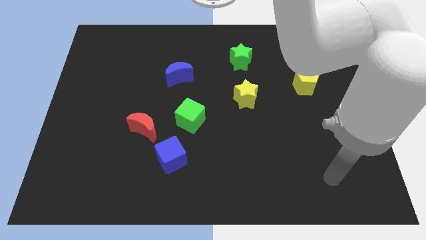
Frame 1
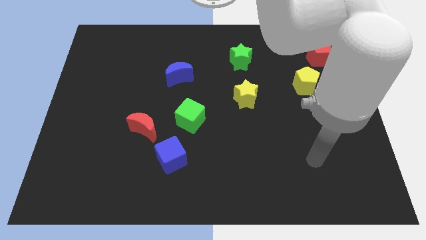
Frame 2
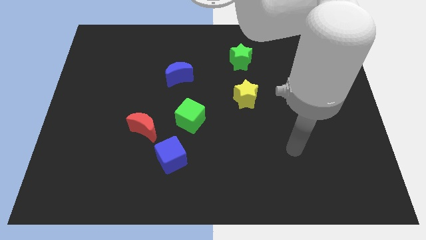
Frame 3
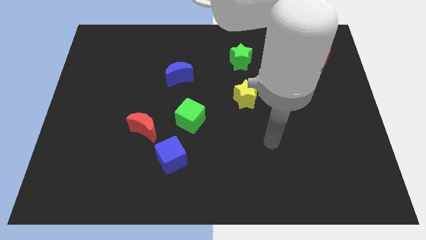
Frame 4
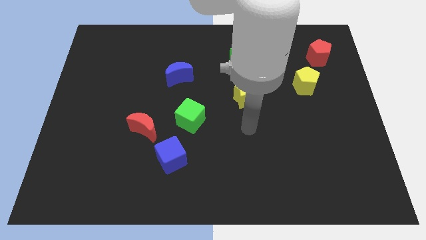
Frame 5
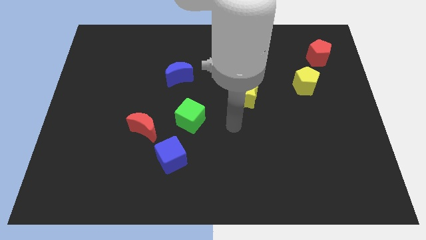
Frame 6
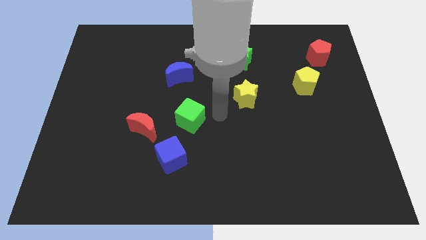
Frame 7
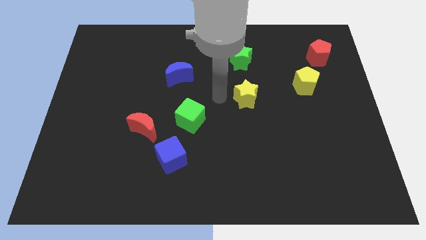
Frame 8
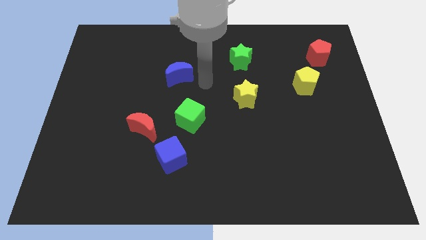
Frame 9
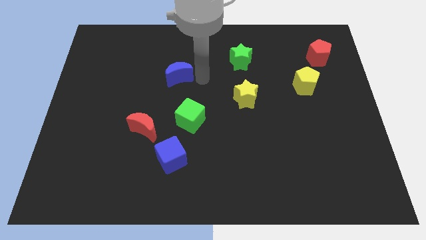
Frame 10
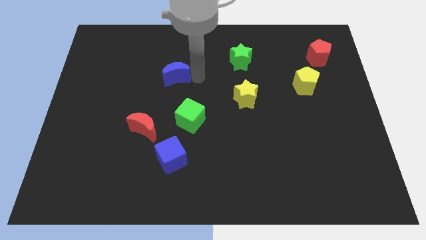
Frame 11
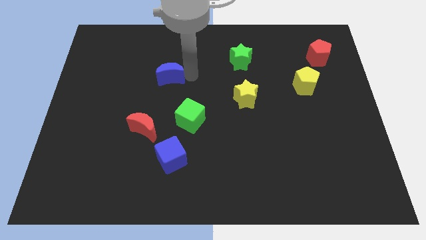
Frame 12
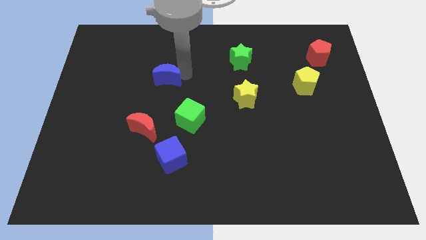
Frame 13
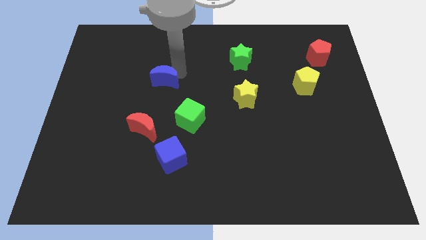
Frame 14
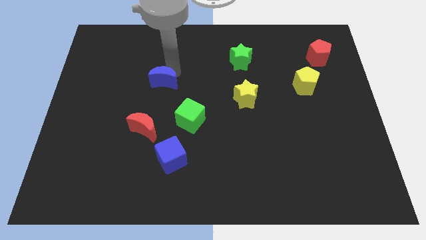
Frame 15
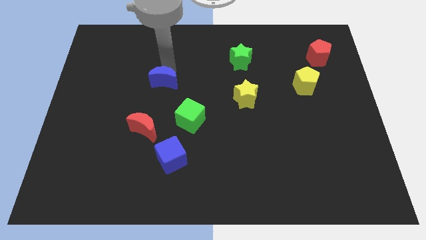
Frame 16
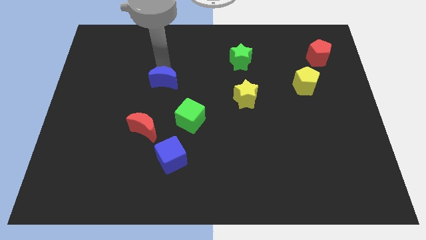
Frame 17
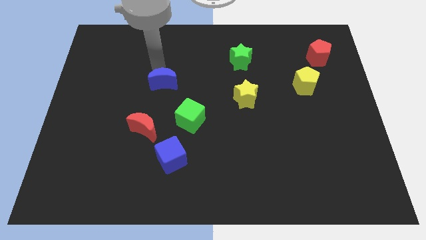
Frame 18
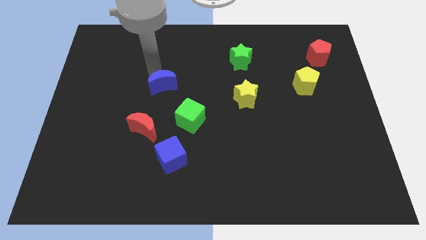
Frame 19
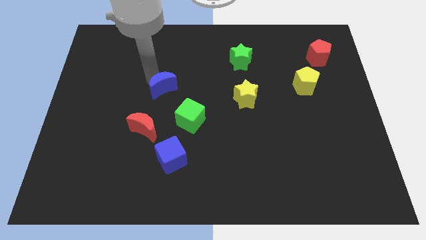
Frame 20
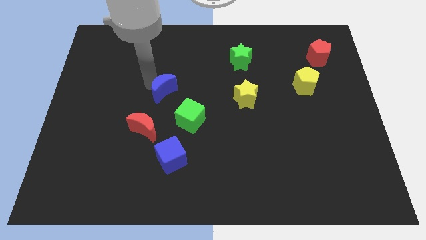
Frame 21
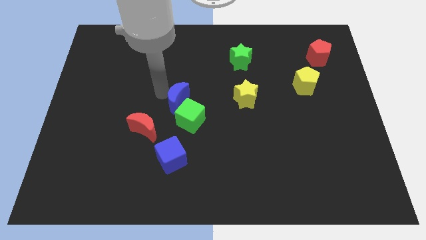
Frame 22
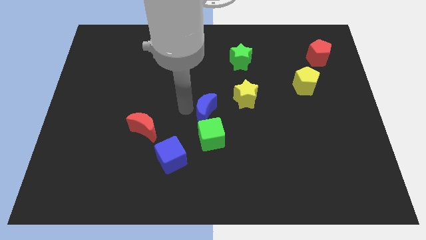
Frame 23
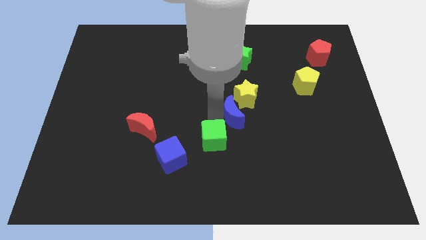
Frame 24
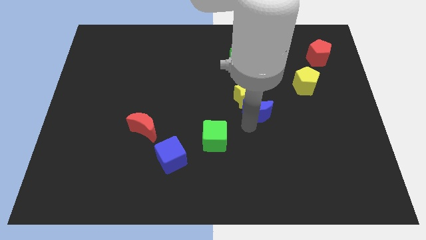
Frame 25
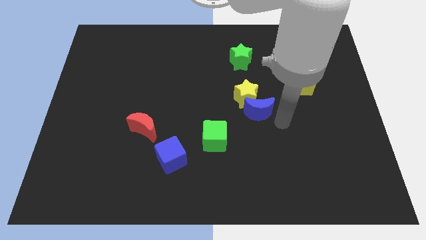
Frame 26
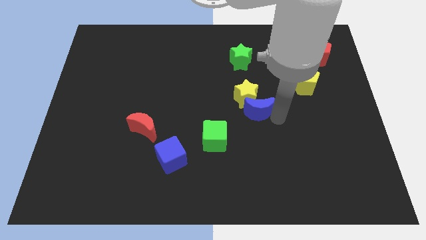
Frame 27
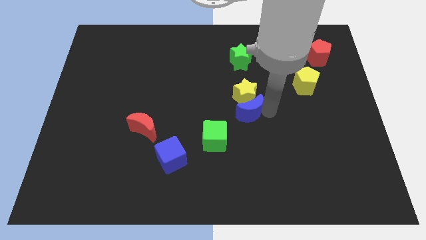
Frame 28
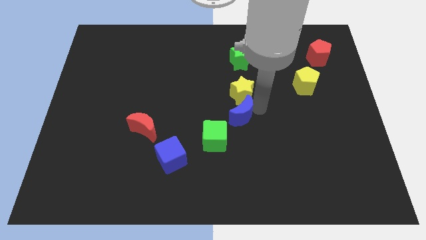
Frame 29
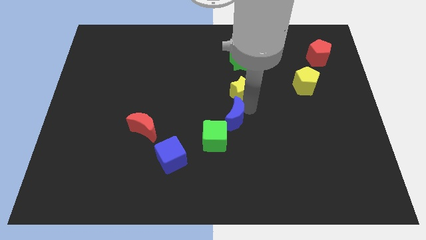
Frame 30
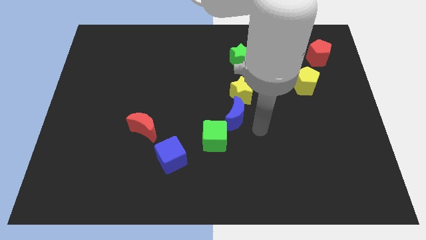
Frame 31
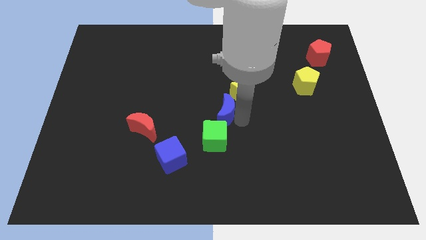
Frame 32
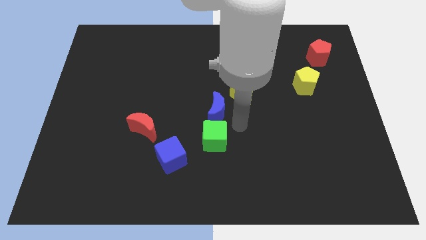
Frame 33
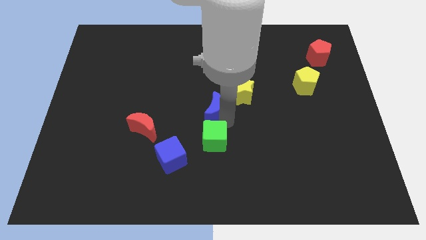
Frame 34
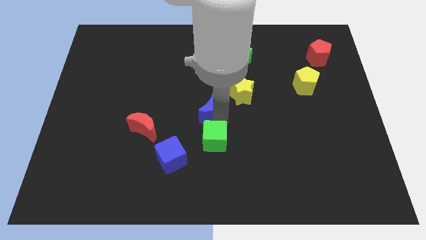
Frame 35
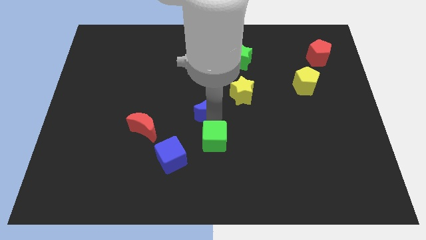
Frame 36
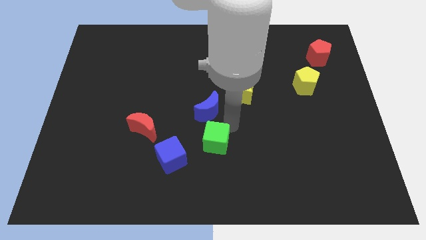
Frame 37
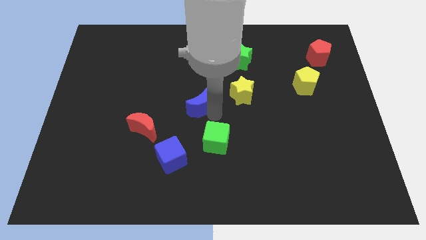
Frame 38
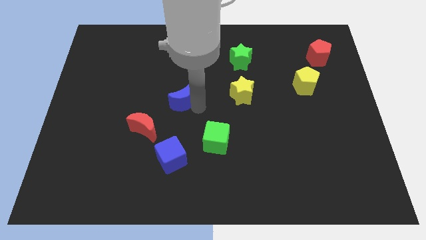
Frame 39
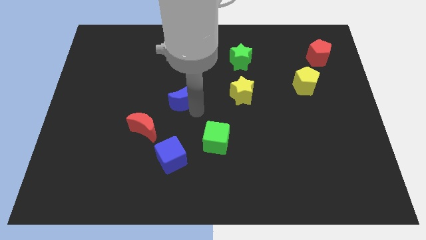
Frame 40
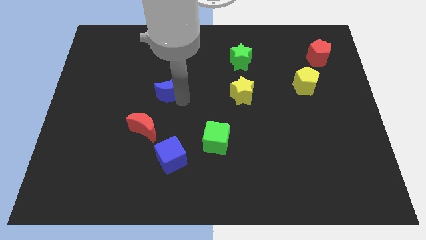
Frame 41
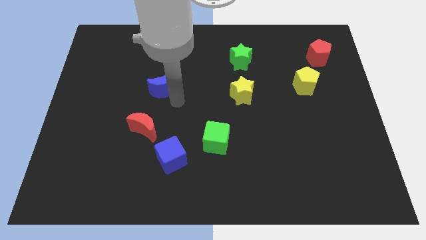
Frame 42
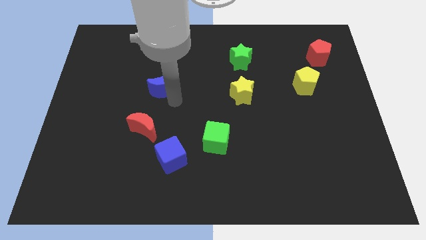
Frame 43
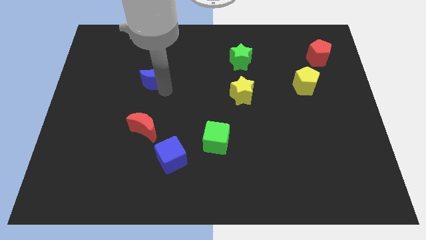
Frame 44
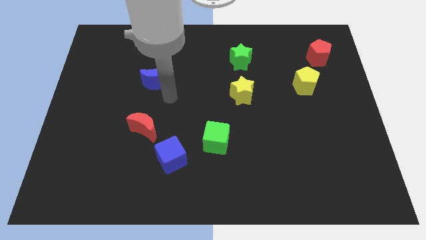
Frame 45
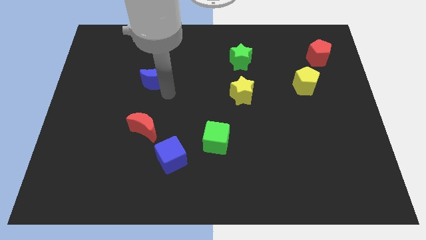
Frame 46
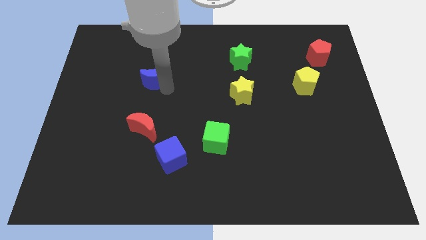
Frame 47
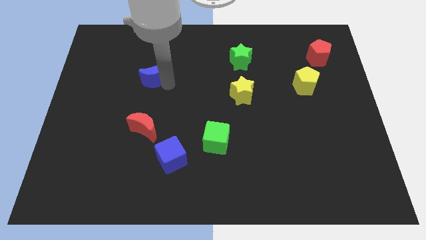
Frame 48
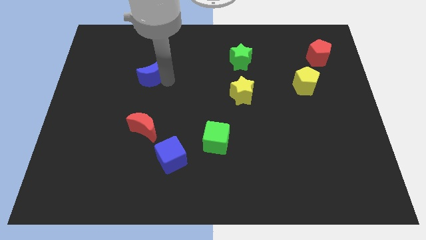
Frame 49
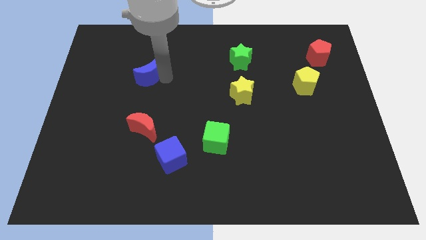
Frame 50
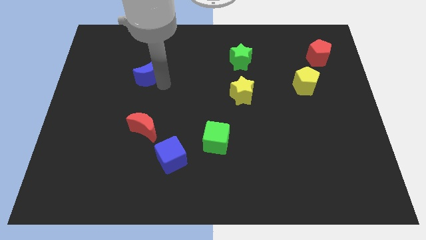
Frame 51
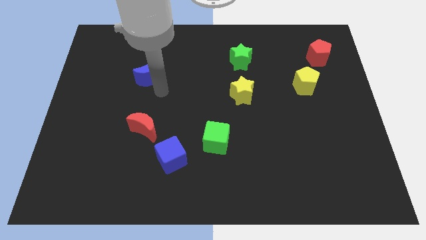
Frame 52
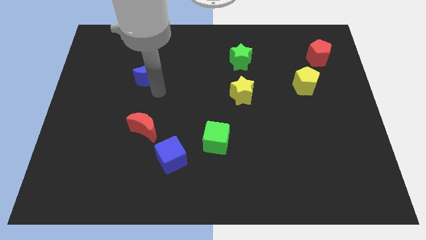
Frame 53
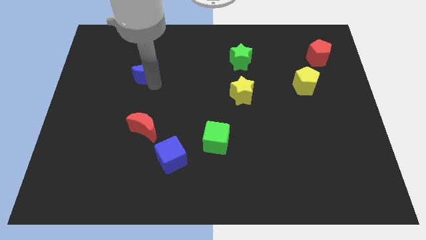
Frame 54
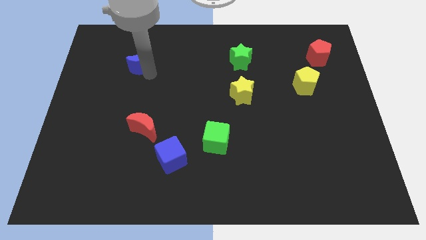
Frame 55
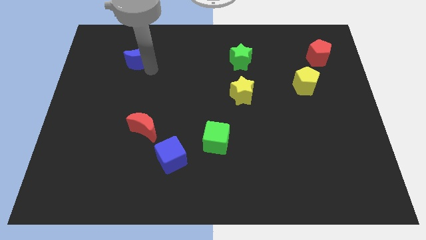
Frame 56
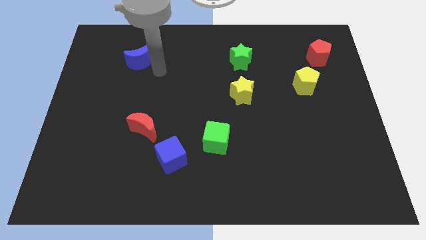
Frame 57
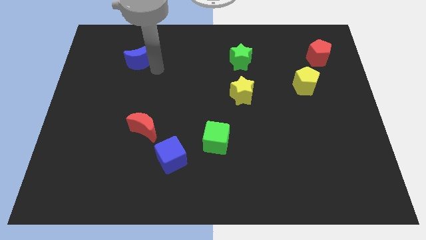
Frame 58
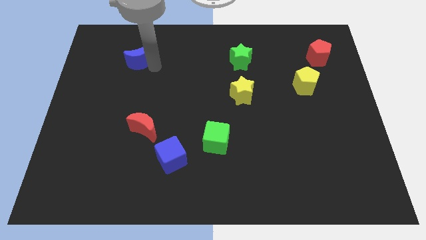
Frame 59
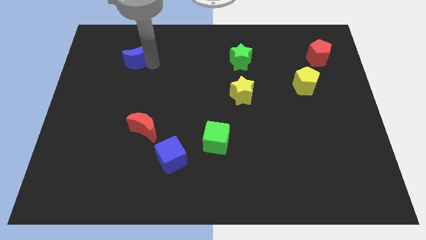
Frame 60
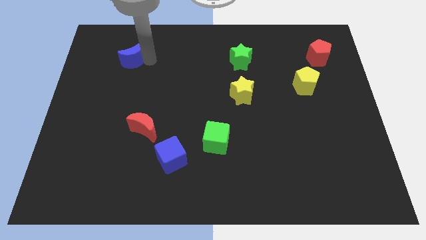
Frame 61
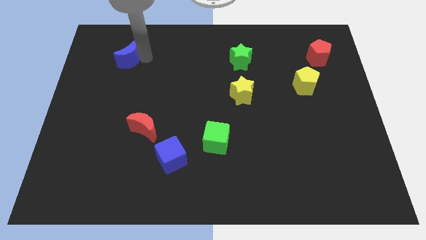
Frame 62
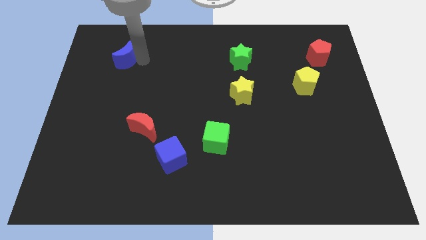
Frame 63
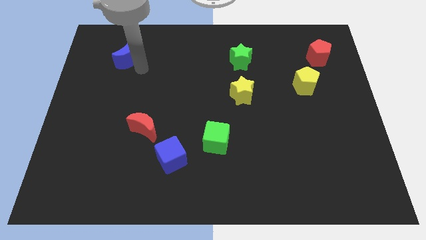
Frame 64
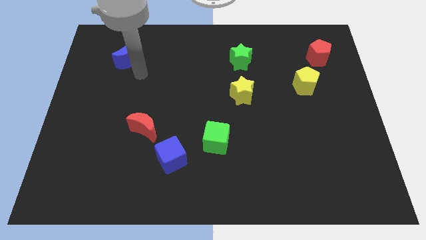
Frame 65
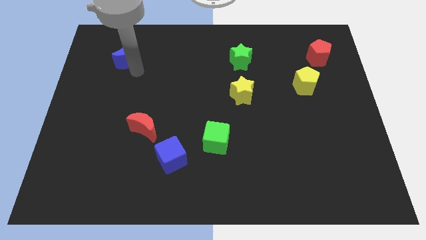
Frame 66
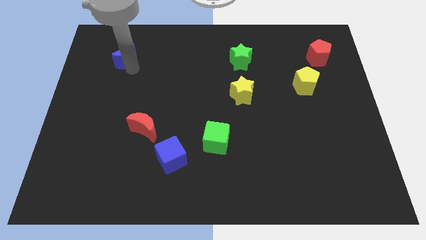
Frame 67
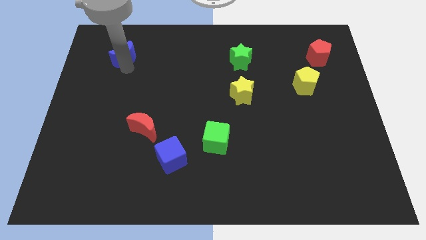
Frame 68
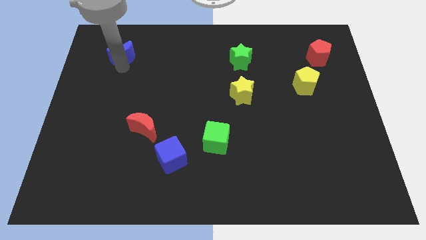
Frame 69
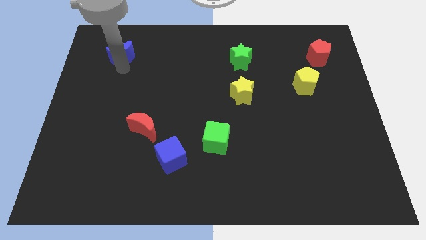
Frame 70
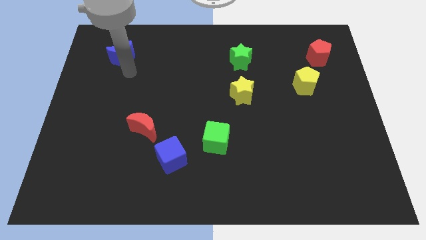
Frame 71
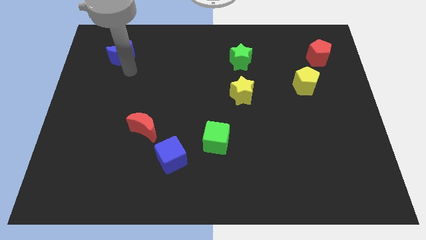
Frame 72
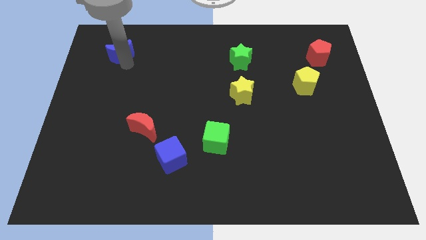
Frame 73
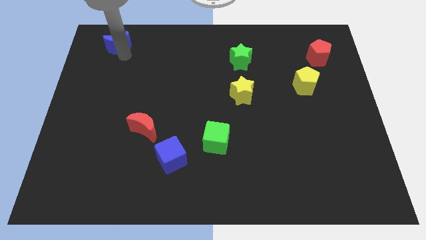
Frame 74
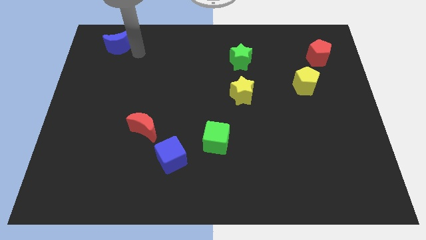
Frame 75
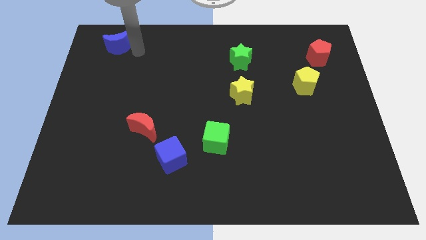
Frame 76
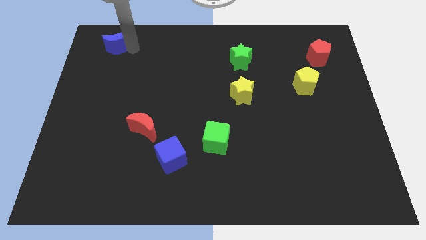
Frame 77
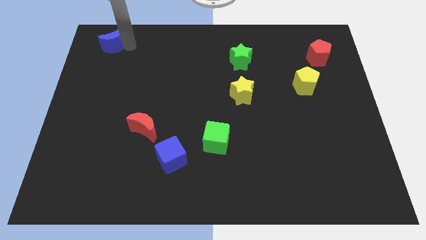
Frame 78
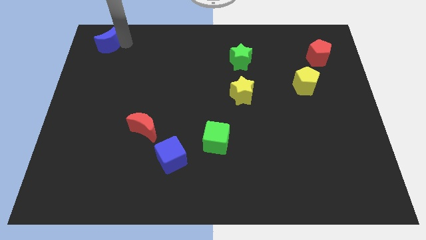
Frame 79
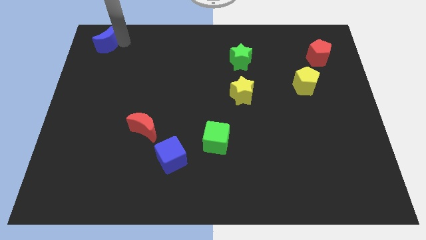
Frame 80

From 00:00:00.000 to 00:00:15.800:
push the blue moon to the upper left corner
